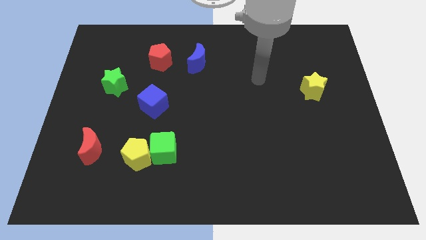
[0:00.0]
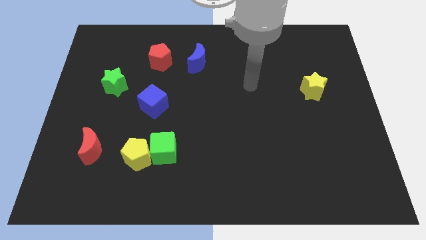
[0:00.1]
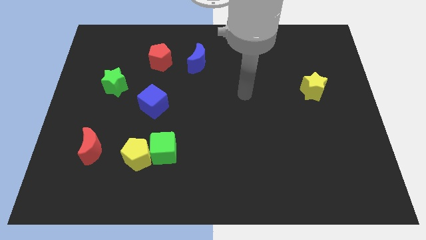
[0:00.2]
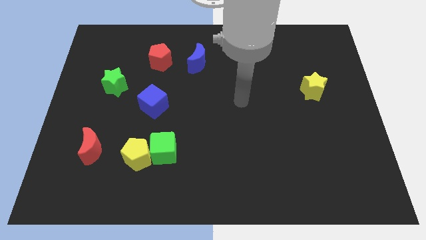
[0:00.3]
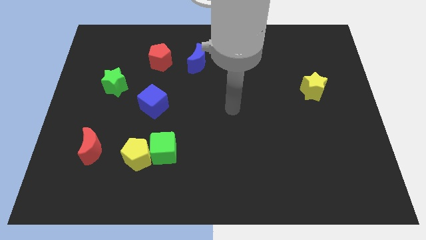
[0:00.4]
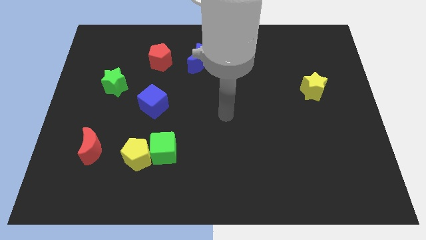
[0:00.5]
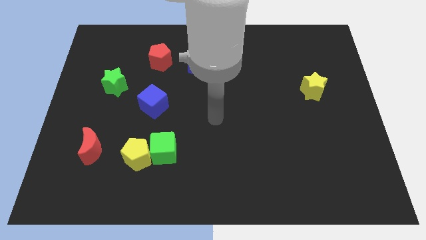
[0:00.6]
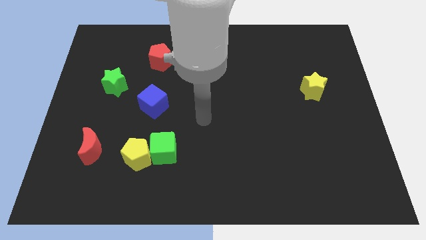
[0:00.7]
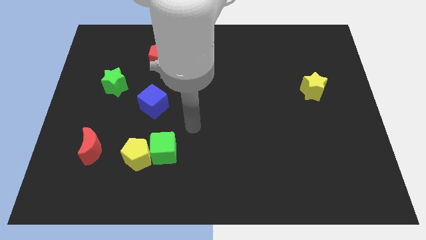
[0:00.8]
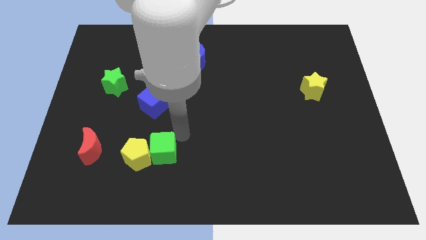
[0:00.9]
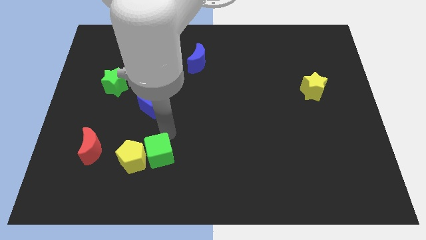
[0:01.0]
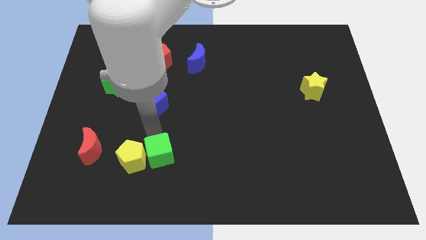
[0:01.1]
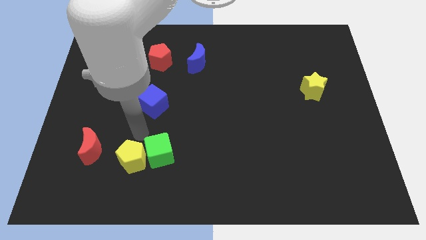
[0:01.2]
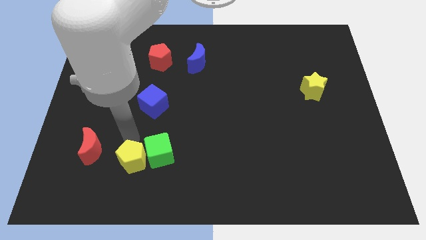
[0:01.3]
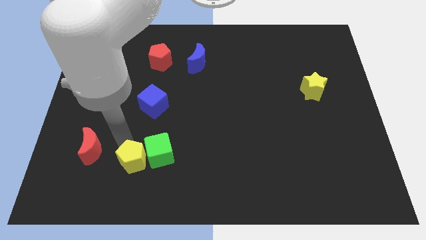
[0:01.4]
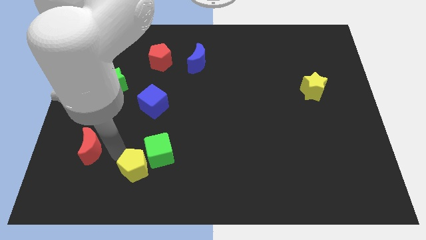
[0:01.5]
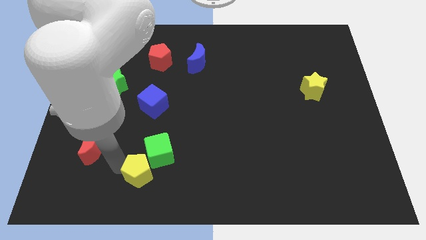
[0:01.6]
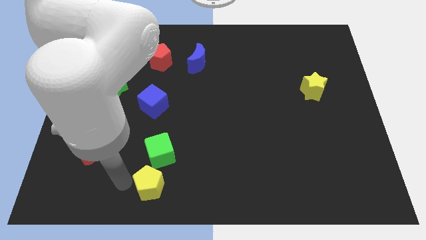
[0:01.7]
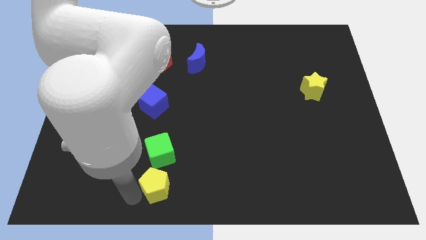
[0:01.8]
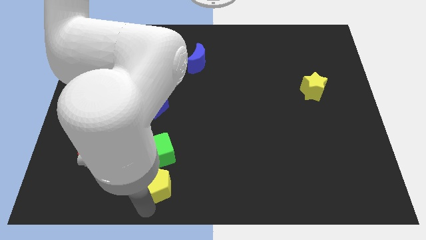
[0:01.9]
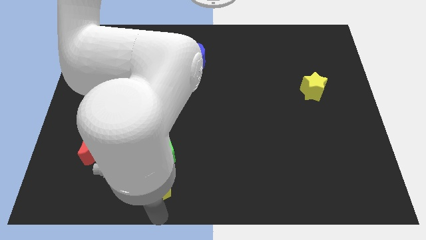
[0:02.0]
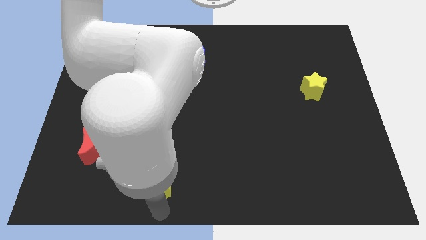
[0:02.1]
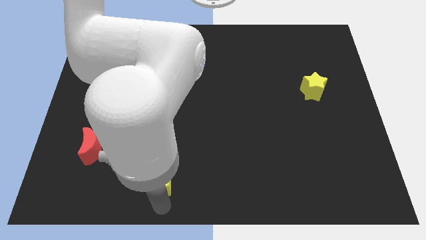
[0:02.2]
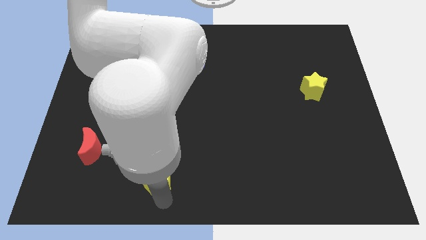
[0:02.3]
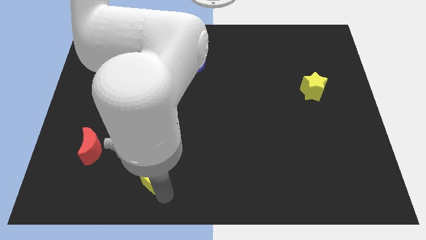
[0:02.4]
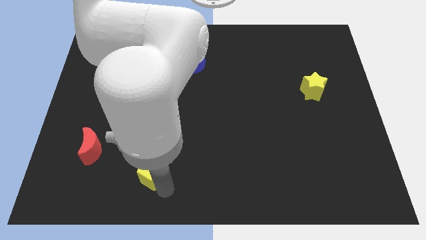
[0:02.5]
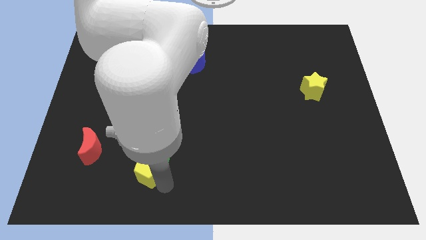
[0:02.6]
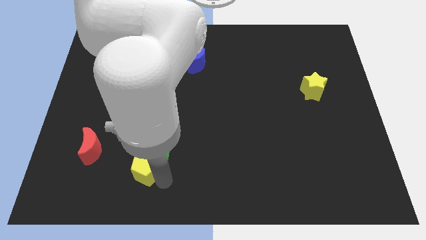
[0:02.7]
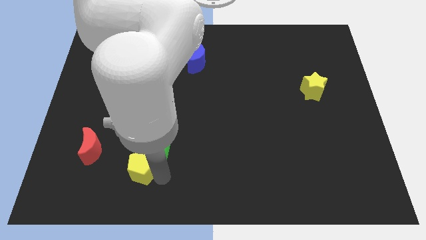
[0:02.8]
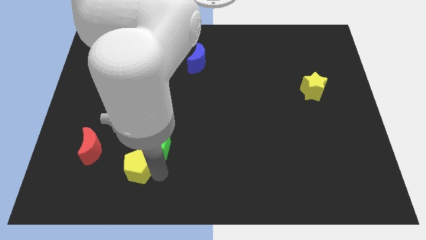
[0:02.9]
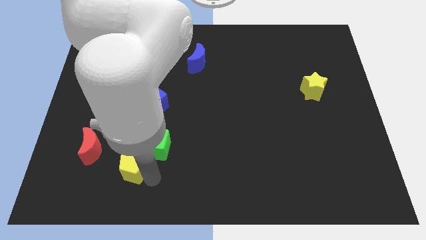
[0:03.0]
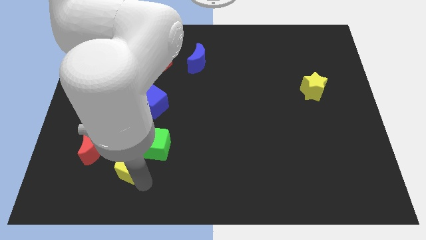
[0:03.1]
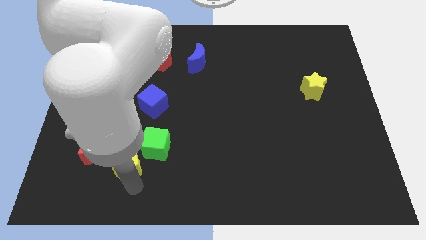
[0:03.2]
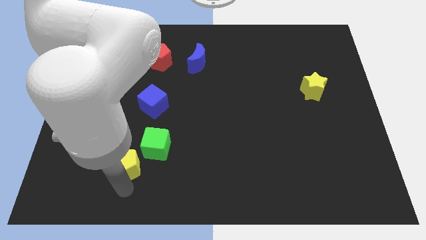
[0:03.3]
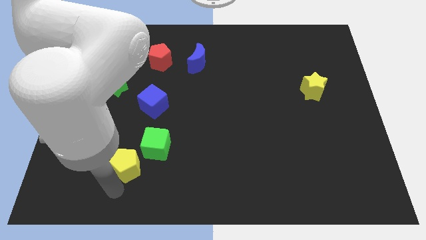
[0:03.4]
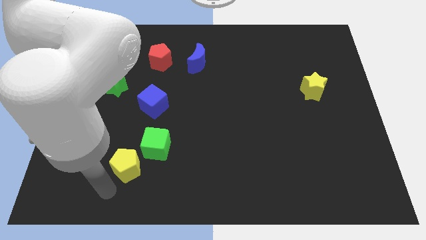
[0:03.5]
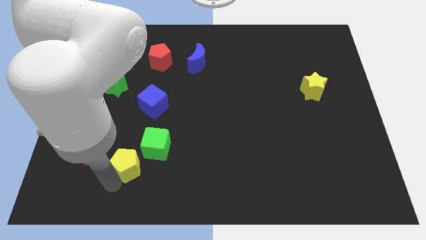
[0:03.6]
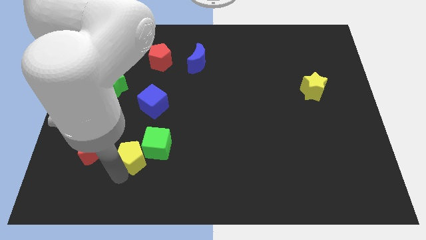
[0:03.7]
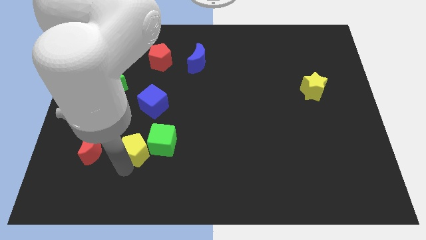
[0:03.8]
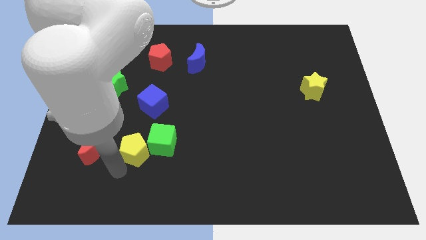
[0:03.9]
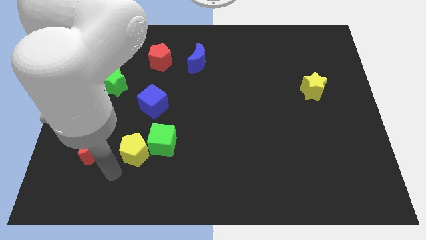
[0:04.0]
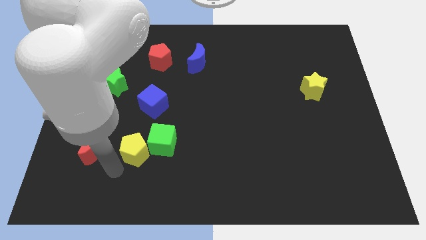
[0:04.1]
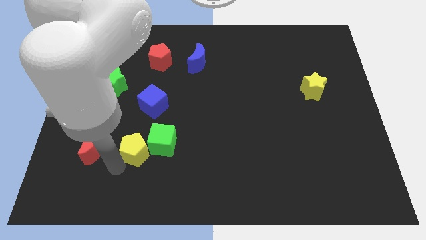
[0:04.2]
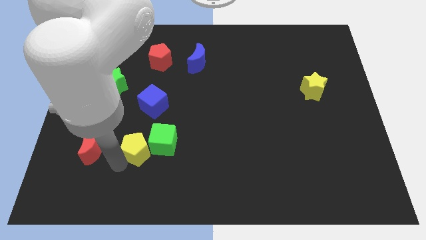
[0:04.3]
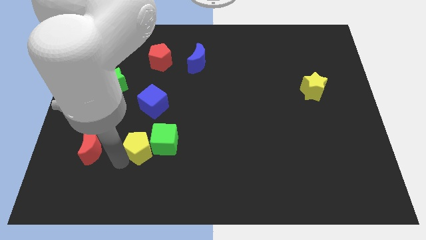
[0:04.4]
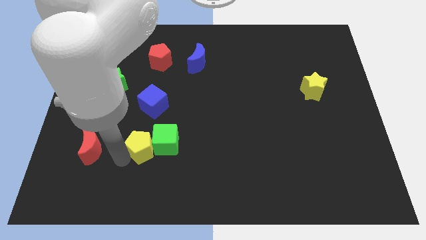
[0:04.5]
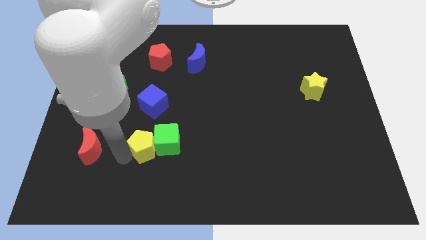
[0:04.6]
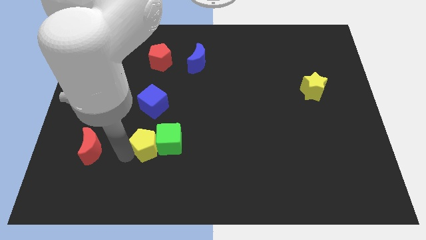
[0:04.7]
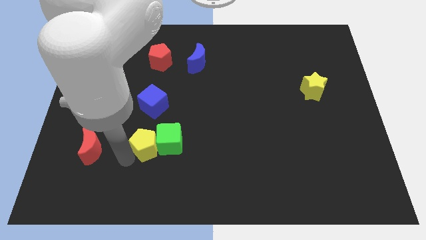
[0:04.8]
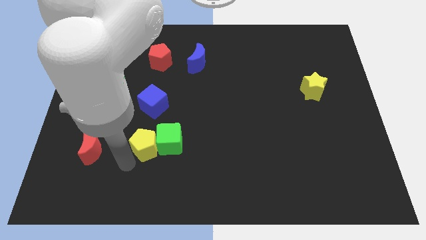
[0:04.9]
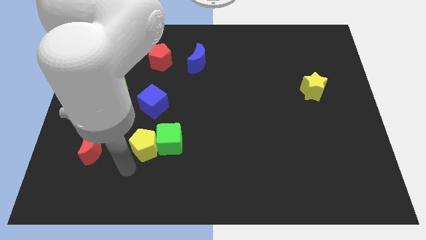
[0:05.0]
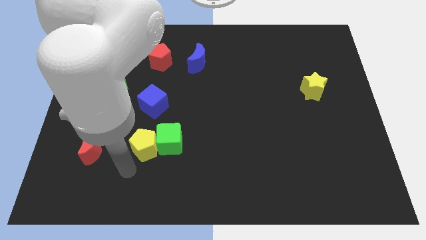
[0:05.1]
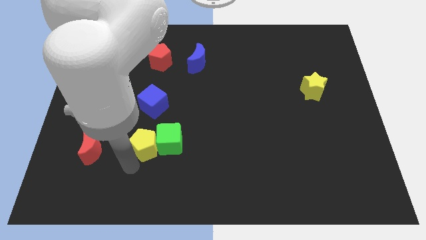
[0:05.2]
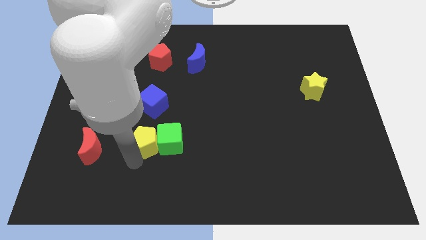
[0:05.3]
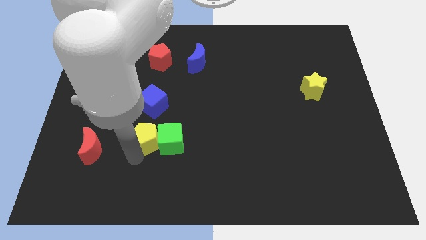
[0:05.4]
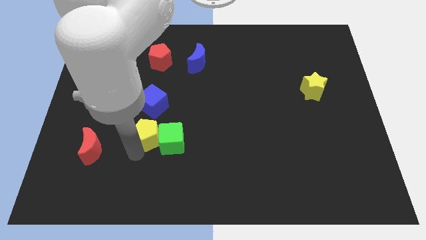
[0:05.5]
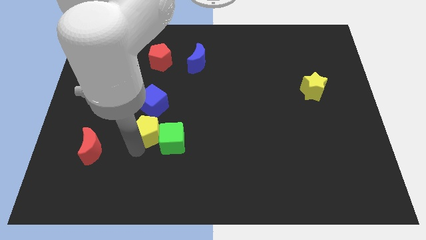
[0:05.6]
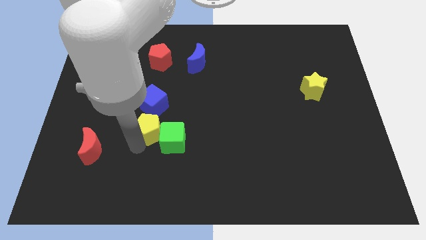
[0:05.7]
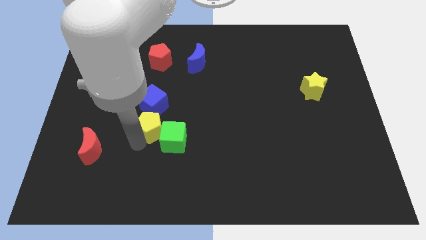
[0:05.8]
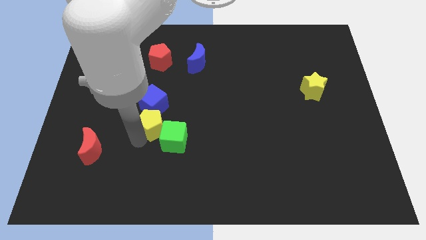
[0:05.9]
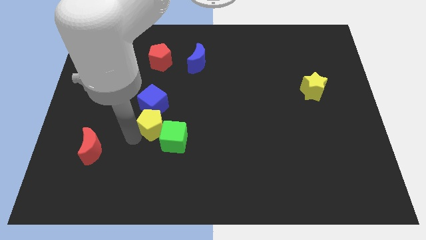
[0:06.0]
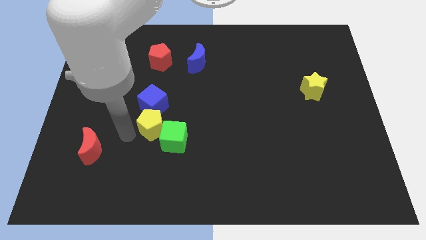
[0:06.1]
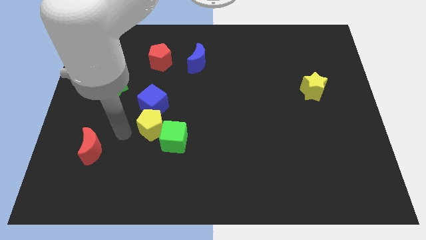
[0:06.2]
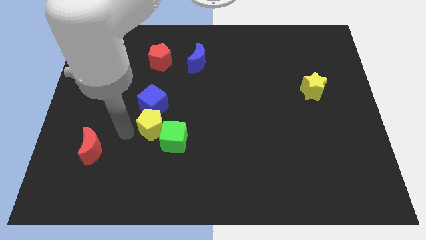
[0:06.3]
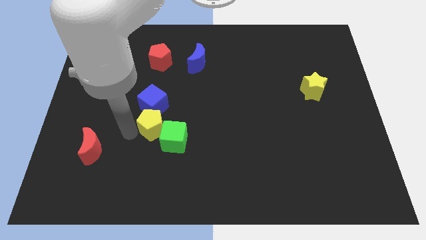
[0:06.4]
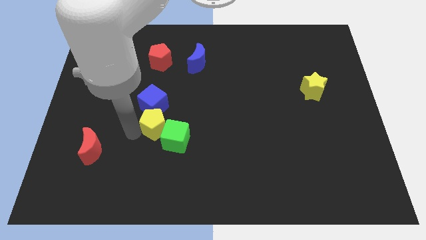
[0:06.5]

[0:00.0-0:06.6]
slide the yellow pentagon somewhat up and then right

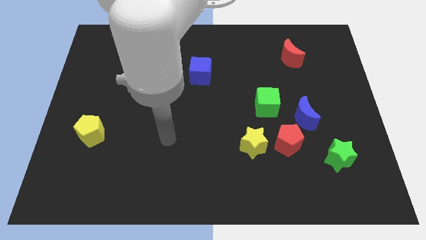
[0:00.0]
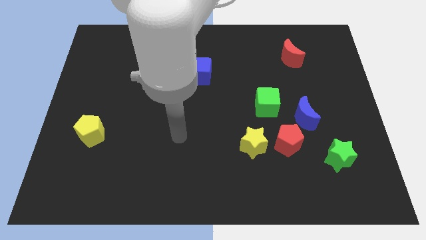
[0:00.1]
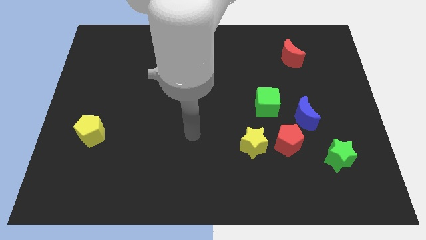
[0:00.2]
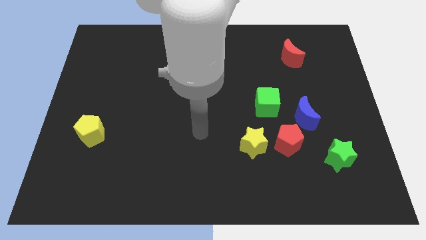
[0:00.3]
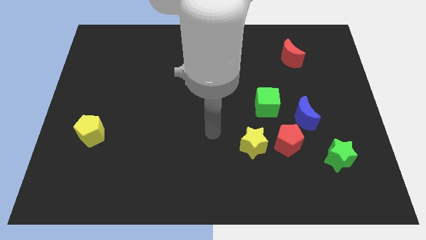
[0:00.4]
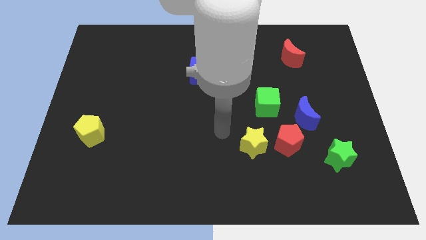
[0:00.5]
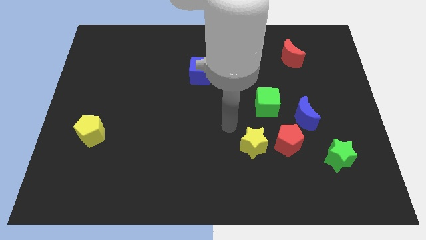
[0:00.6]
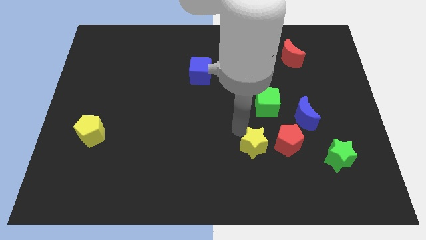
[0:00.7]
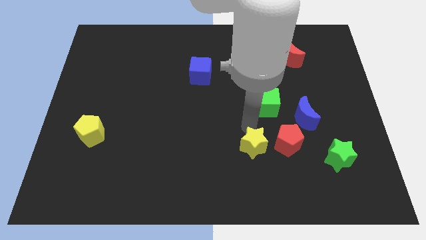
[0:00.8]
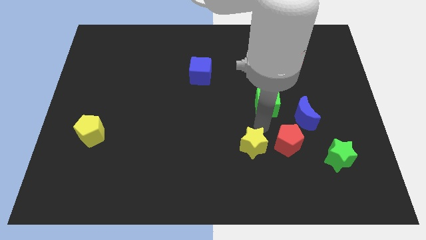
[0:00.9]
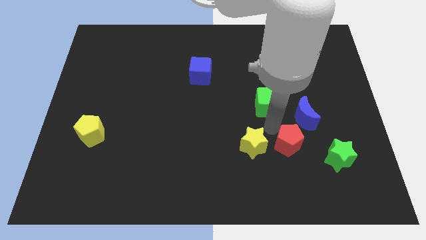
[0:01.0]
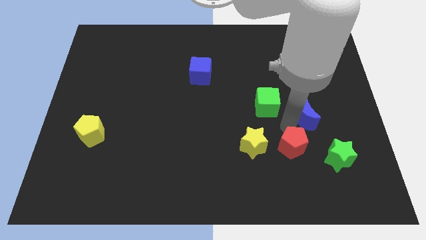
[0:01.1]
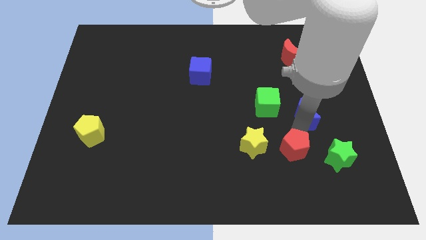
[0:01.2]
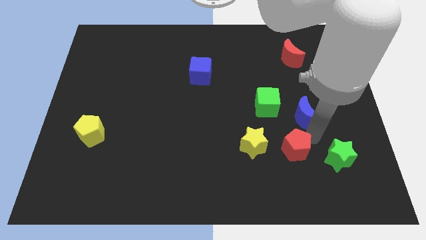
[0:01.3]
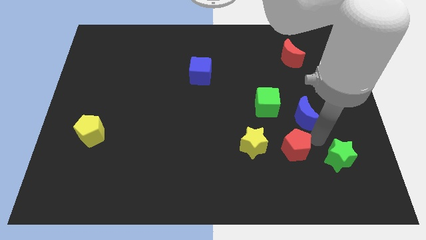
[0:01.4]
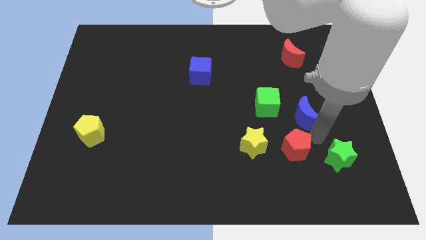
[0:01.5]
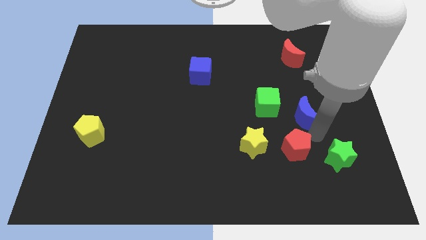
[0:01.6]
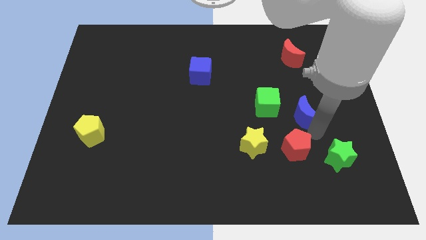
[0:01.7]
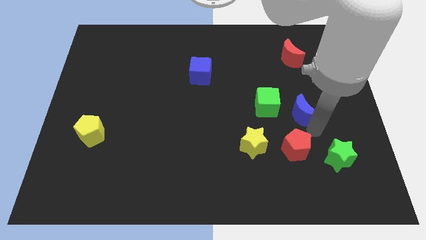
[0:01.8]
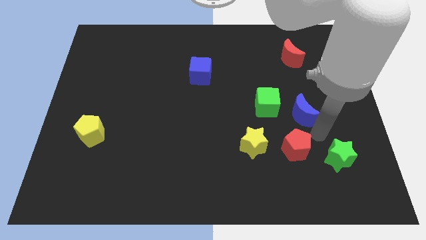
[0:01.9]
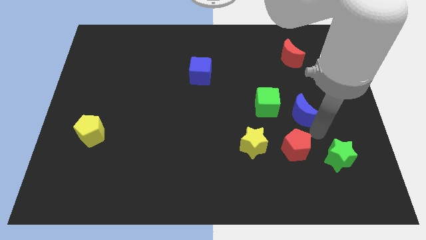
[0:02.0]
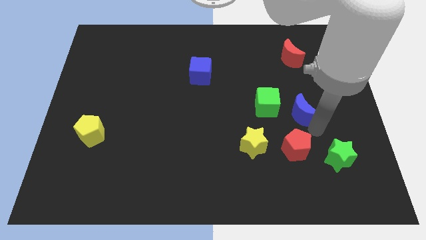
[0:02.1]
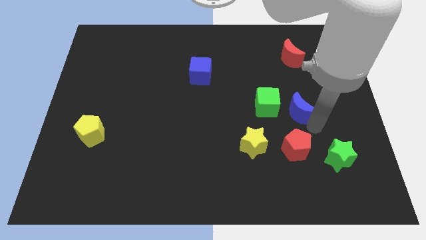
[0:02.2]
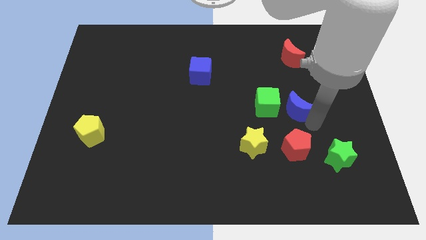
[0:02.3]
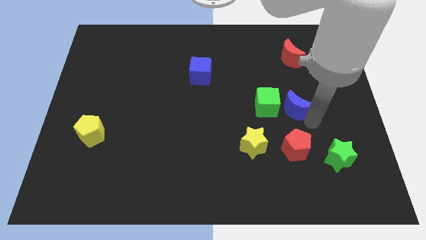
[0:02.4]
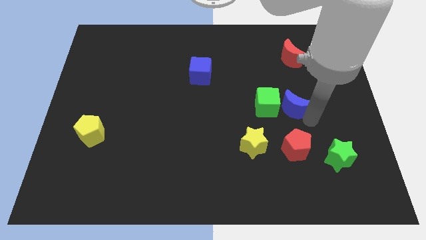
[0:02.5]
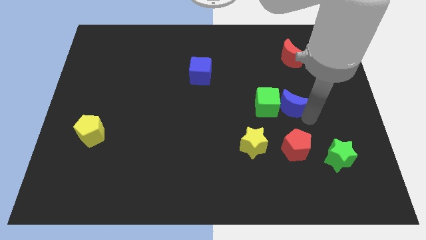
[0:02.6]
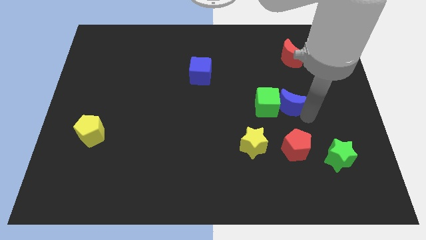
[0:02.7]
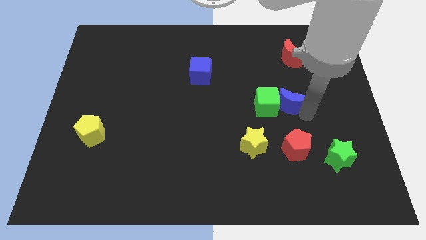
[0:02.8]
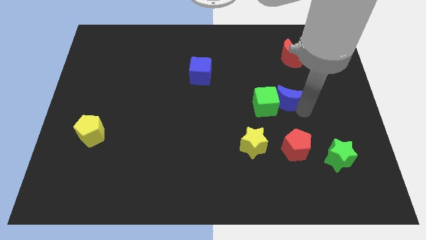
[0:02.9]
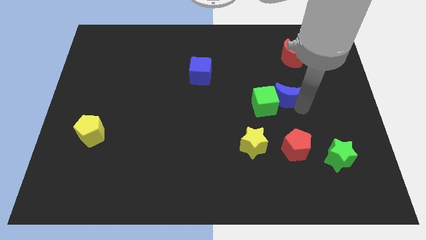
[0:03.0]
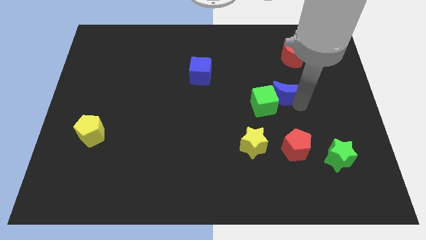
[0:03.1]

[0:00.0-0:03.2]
push the blue moon up and to the left a bit
